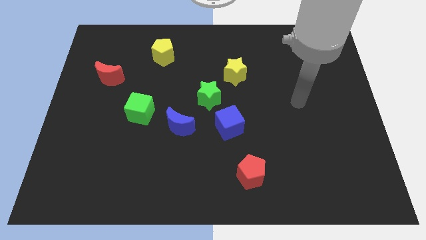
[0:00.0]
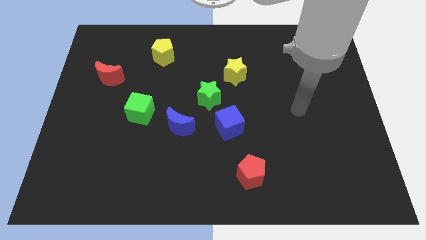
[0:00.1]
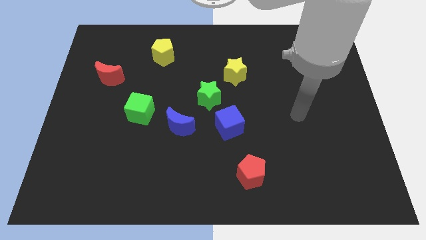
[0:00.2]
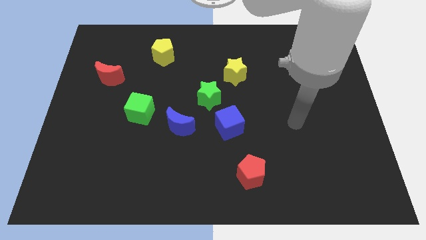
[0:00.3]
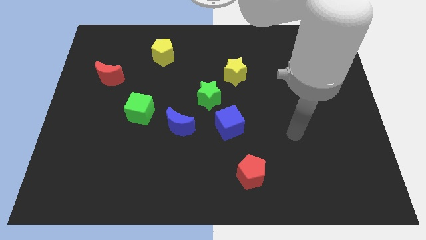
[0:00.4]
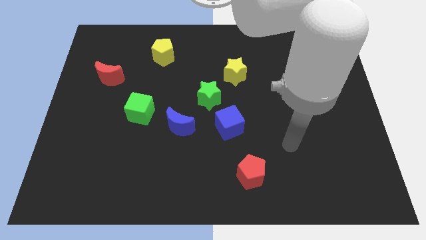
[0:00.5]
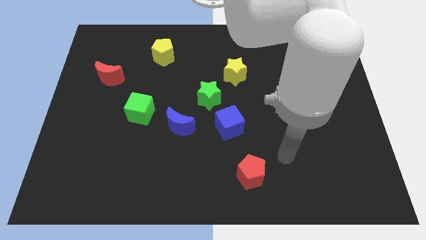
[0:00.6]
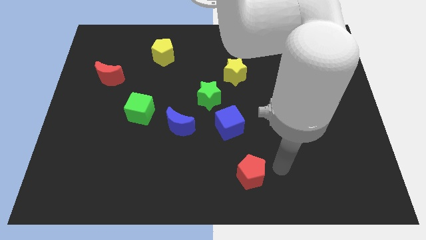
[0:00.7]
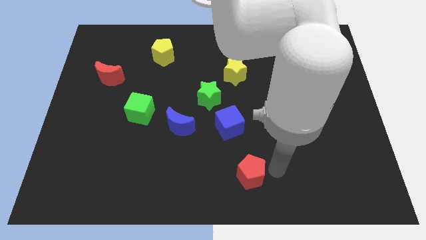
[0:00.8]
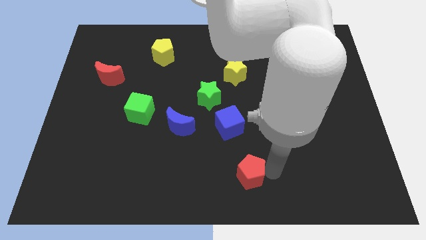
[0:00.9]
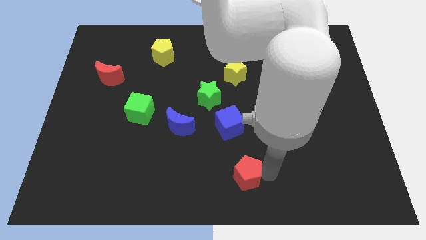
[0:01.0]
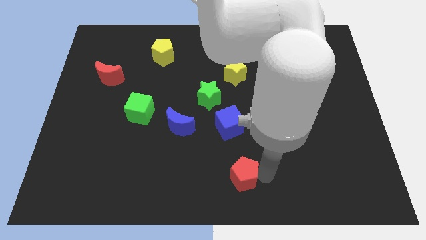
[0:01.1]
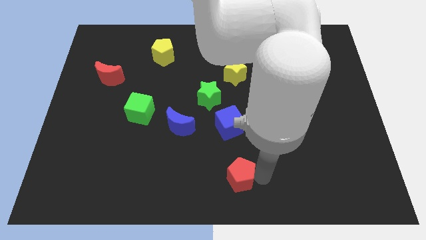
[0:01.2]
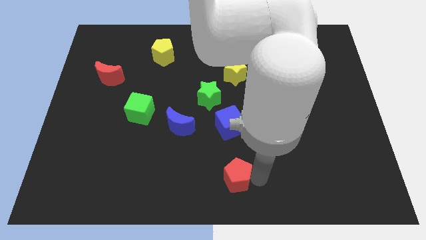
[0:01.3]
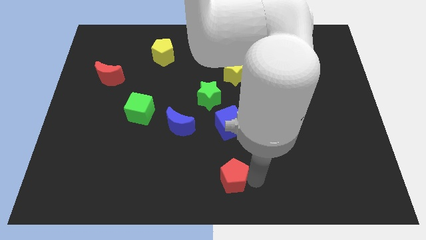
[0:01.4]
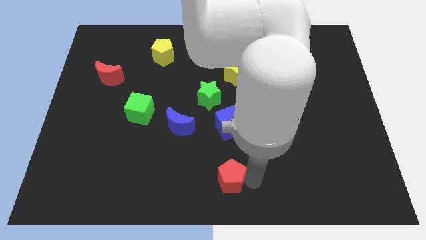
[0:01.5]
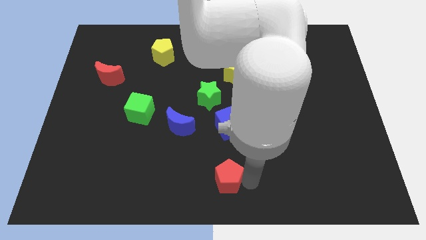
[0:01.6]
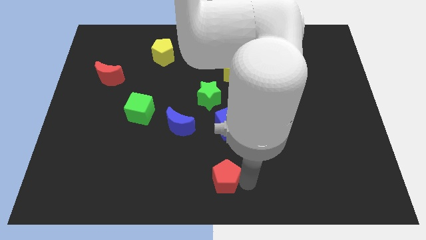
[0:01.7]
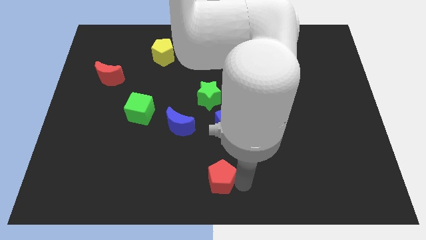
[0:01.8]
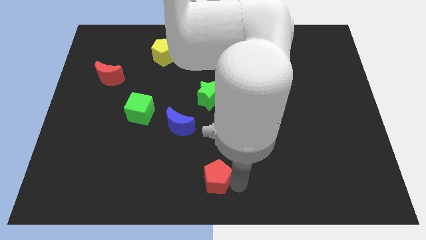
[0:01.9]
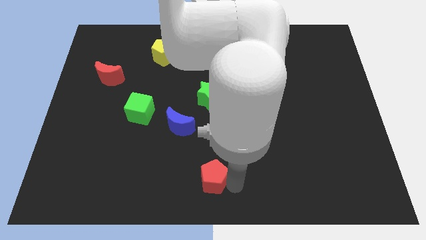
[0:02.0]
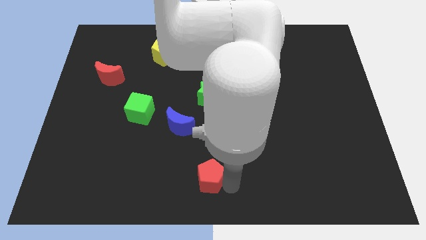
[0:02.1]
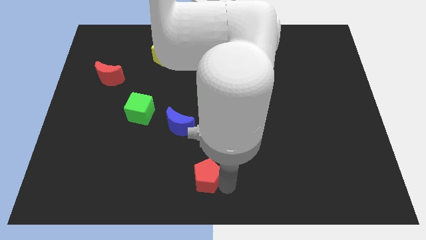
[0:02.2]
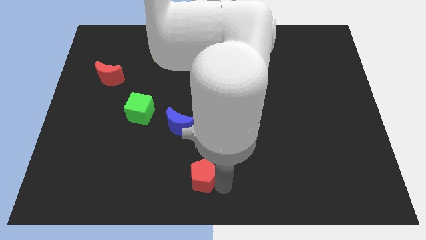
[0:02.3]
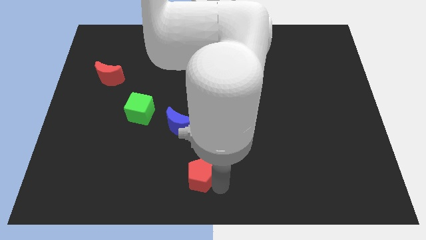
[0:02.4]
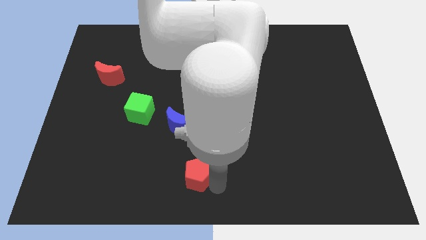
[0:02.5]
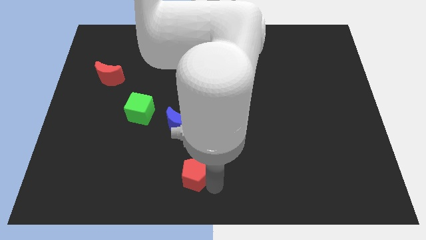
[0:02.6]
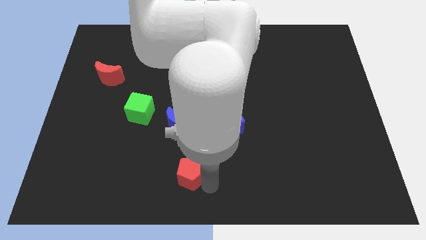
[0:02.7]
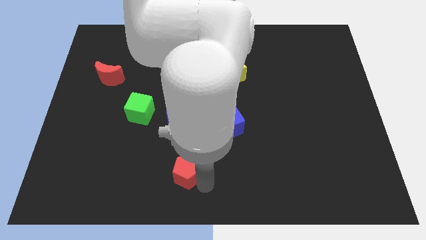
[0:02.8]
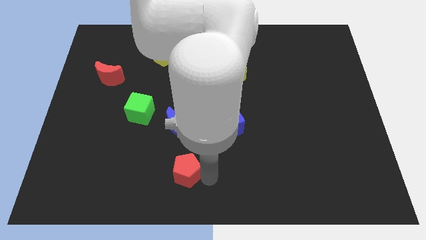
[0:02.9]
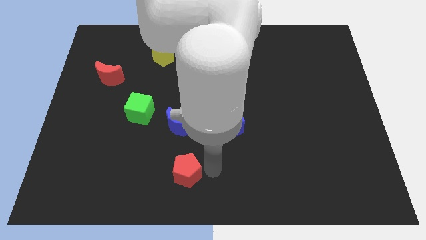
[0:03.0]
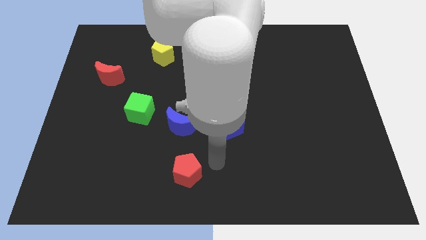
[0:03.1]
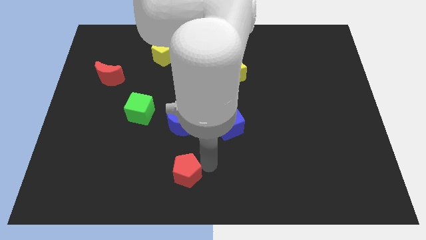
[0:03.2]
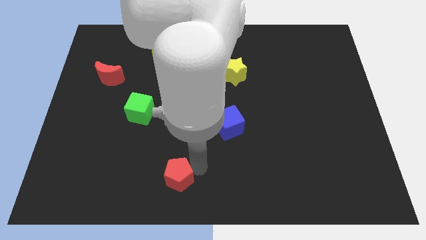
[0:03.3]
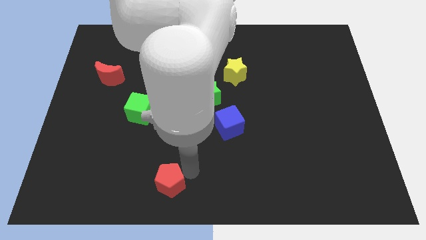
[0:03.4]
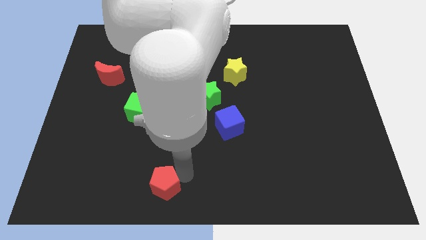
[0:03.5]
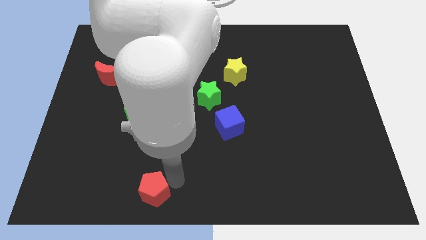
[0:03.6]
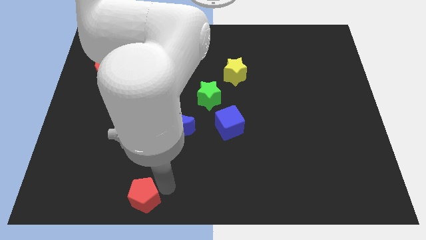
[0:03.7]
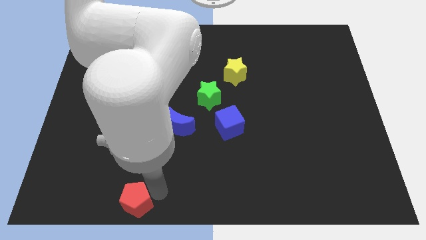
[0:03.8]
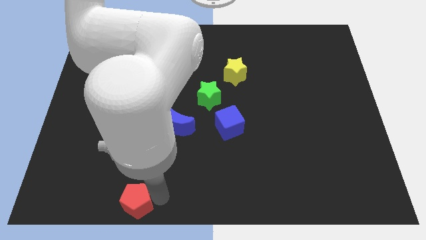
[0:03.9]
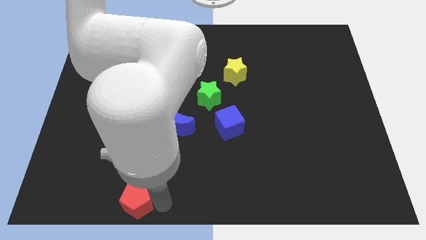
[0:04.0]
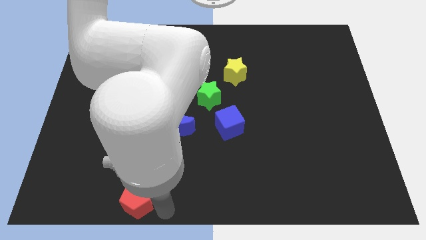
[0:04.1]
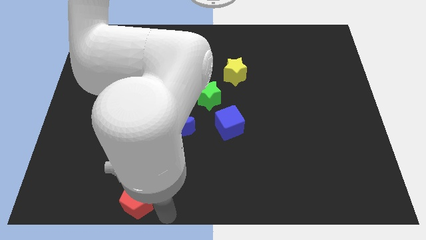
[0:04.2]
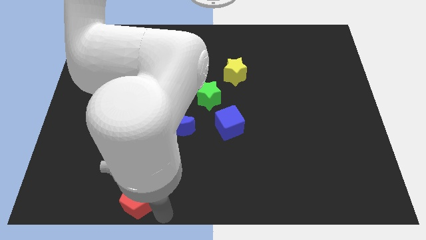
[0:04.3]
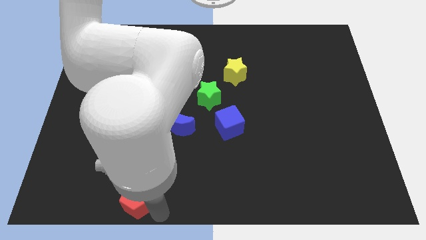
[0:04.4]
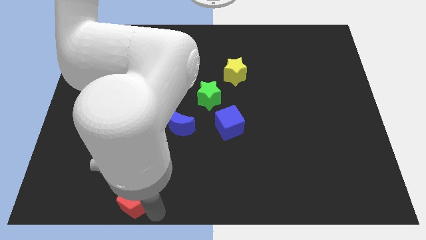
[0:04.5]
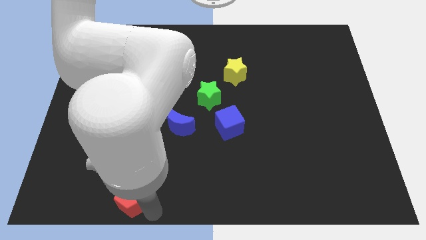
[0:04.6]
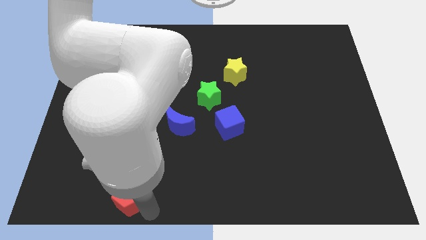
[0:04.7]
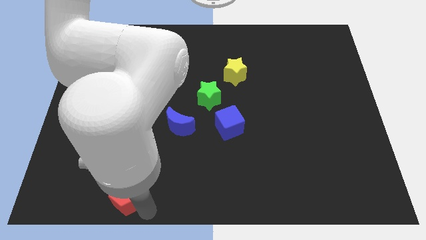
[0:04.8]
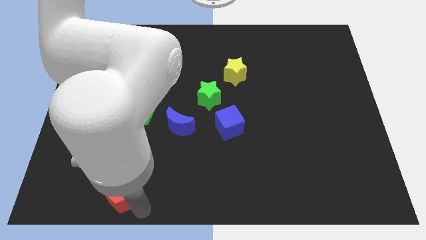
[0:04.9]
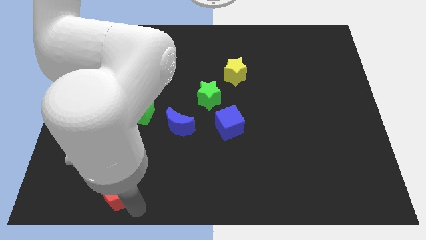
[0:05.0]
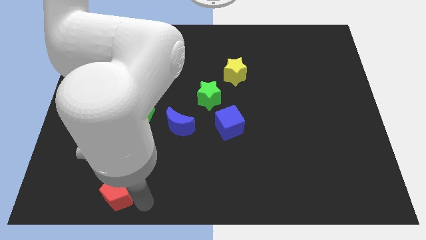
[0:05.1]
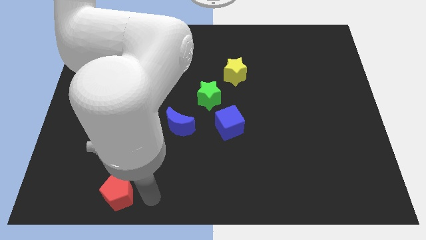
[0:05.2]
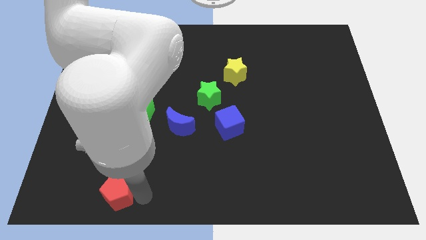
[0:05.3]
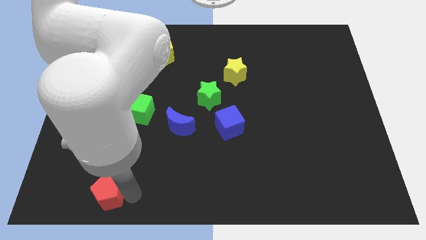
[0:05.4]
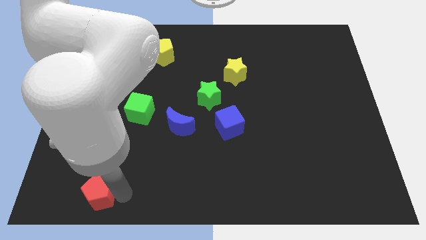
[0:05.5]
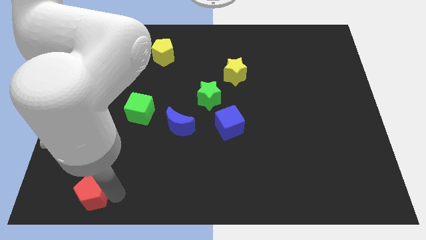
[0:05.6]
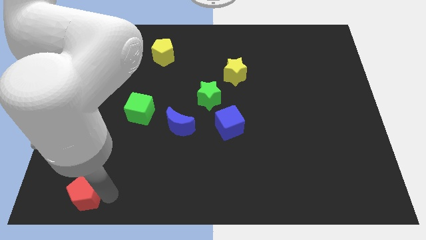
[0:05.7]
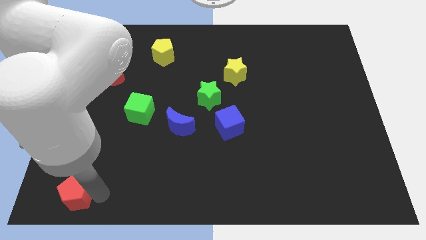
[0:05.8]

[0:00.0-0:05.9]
put the red pentagon to the bottom left
